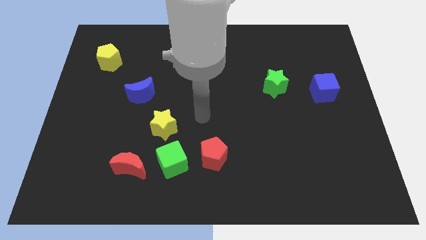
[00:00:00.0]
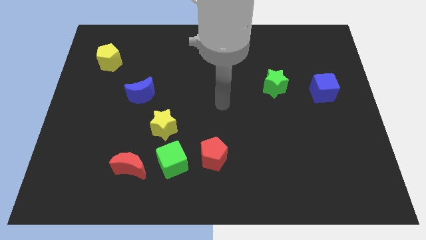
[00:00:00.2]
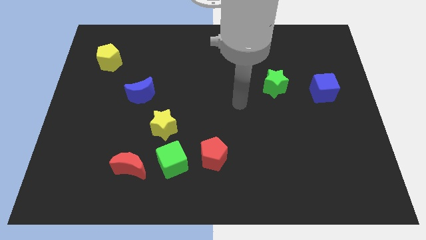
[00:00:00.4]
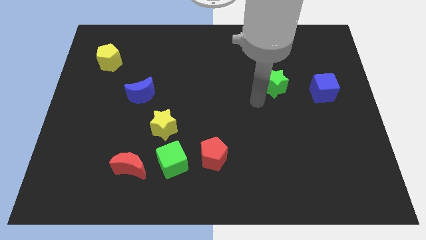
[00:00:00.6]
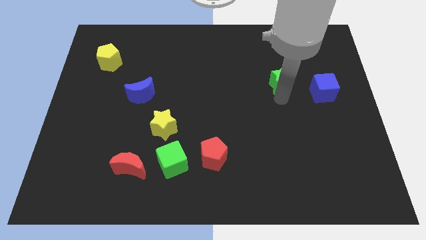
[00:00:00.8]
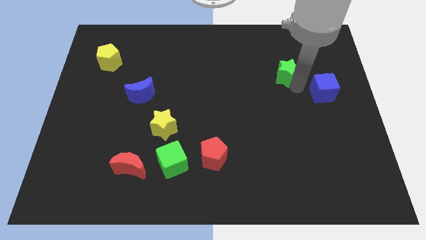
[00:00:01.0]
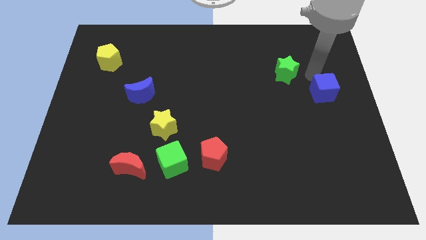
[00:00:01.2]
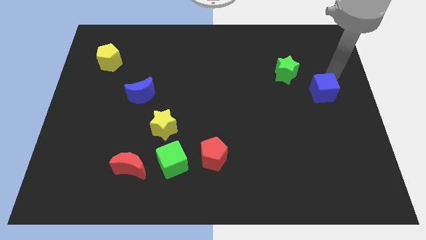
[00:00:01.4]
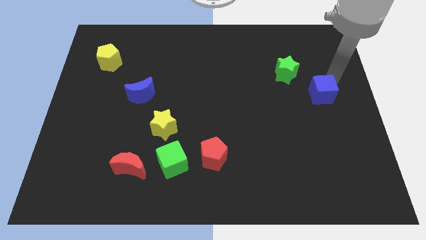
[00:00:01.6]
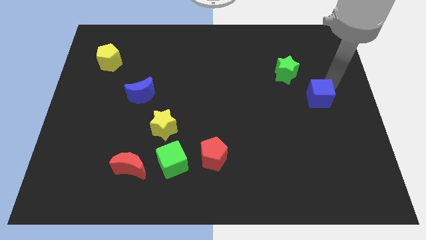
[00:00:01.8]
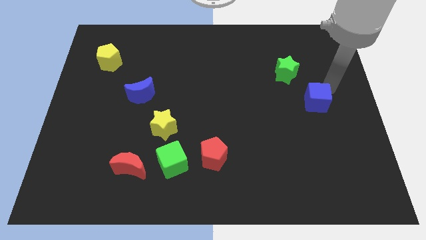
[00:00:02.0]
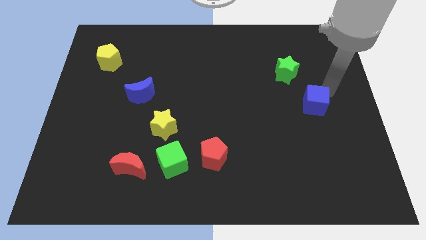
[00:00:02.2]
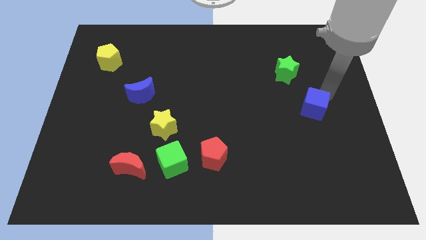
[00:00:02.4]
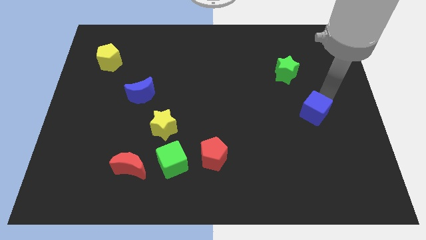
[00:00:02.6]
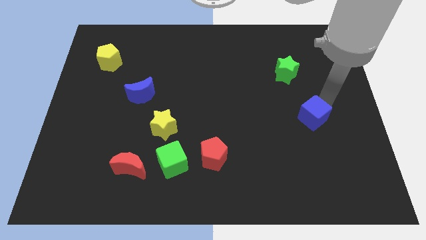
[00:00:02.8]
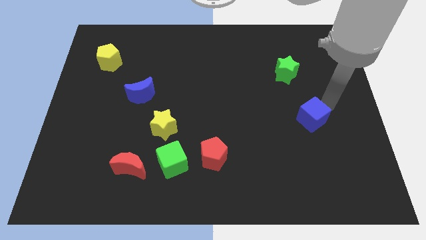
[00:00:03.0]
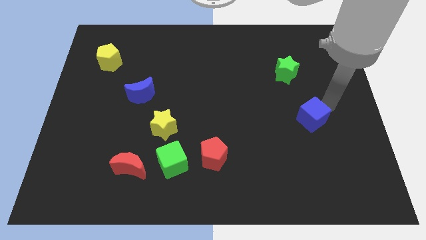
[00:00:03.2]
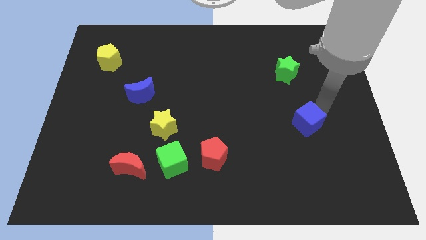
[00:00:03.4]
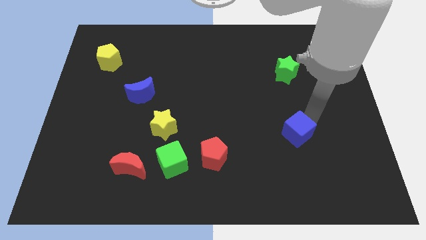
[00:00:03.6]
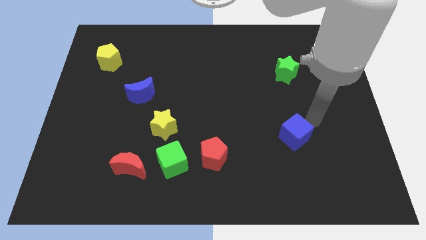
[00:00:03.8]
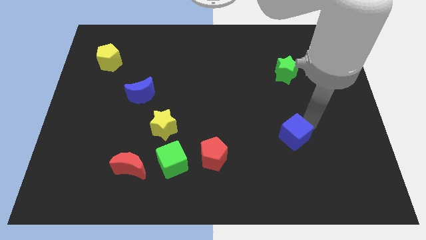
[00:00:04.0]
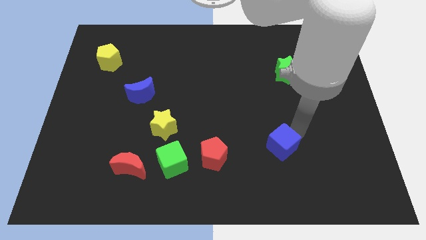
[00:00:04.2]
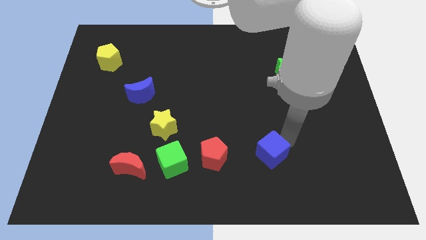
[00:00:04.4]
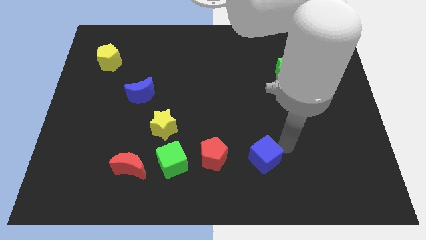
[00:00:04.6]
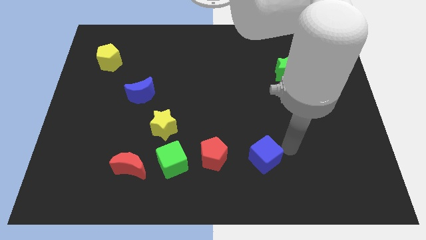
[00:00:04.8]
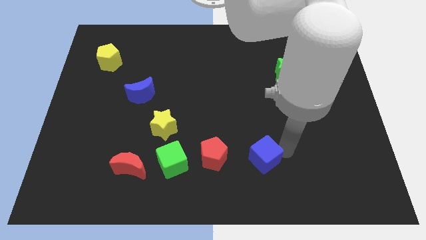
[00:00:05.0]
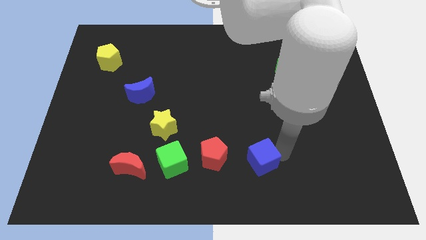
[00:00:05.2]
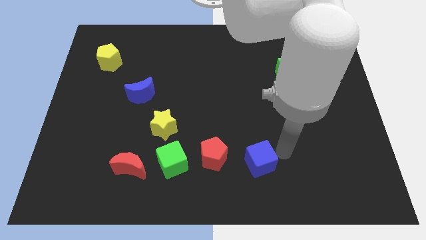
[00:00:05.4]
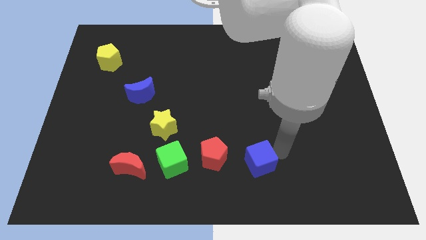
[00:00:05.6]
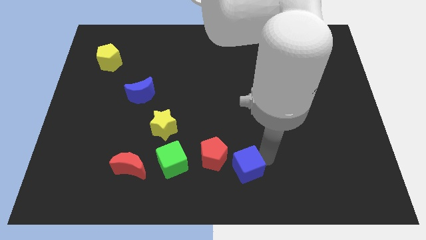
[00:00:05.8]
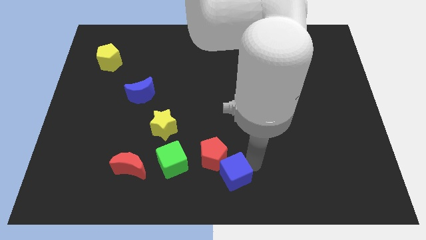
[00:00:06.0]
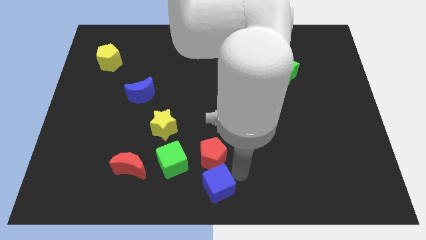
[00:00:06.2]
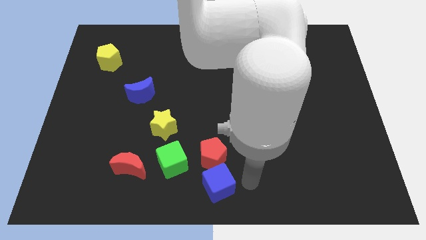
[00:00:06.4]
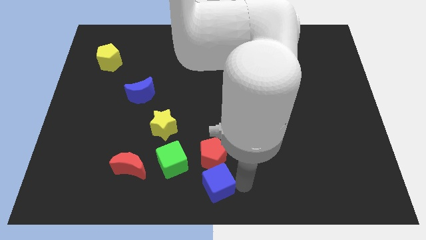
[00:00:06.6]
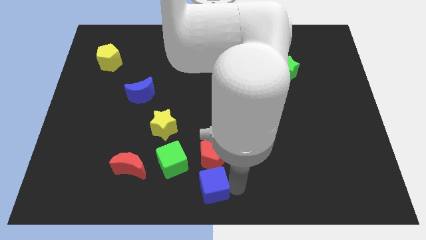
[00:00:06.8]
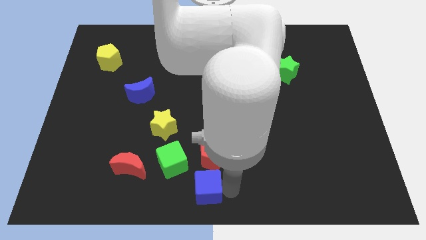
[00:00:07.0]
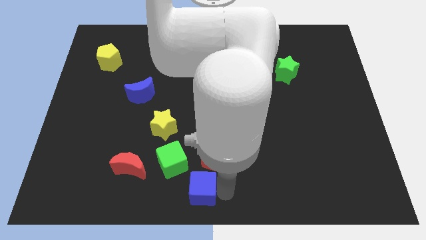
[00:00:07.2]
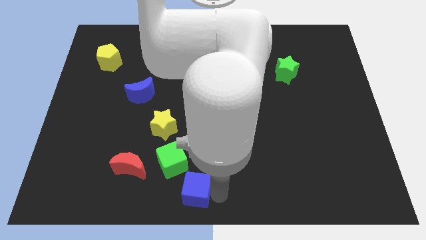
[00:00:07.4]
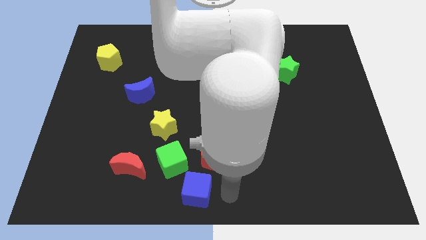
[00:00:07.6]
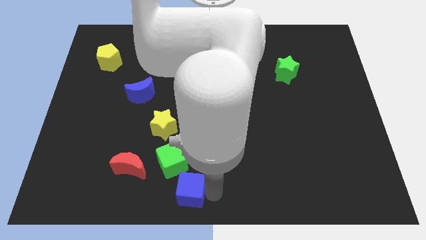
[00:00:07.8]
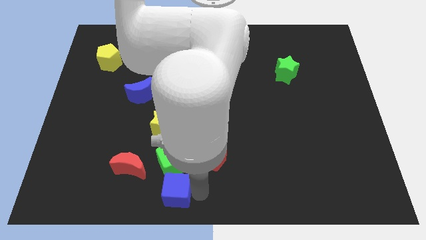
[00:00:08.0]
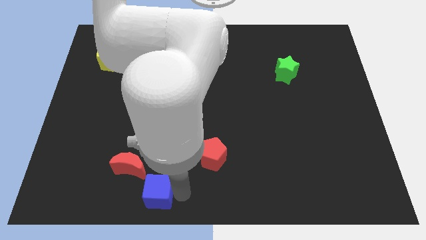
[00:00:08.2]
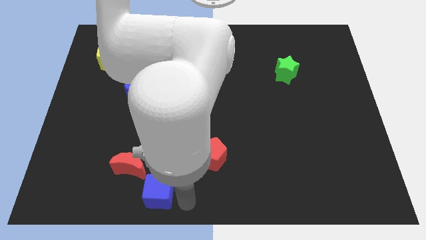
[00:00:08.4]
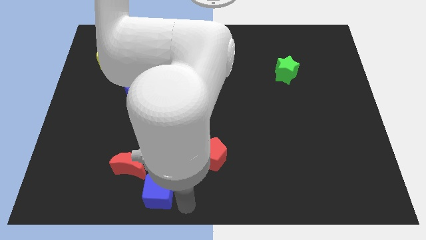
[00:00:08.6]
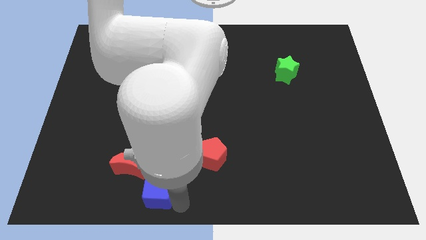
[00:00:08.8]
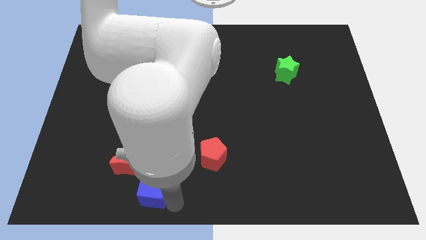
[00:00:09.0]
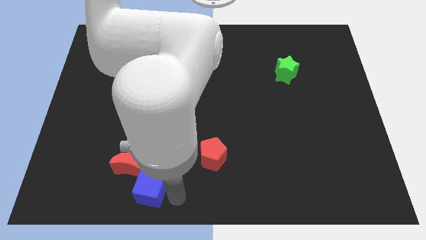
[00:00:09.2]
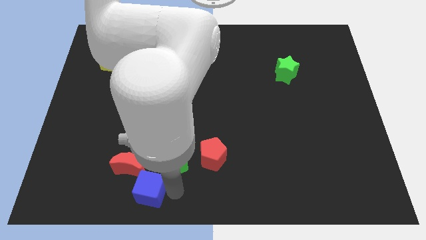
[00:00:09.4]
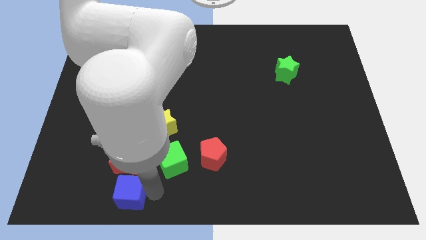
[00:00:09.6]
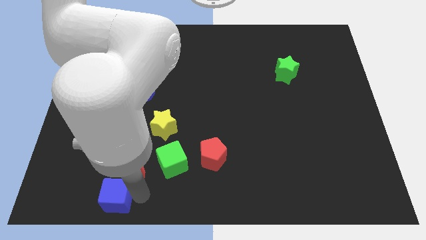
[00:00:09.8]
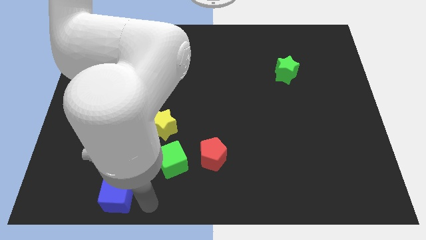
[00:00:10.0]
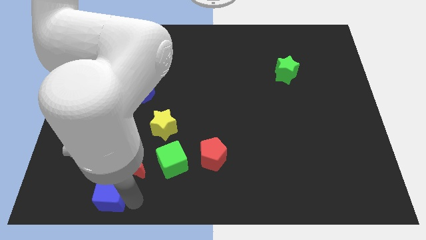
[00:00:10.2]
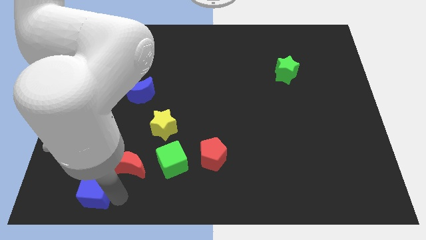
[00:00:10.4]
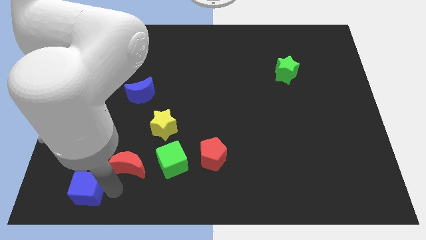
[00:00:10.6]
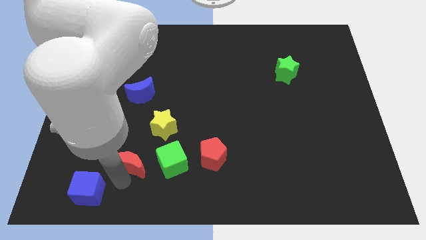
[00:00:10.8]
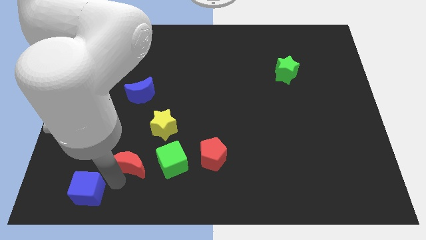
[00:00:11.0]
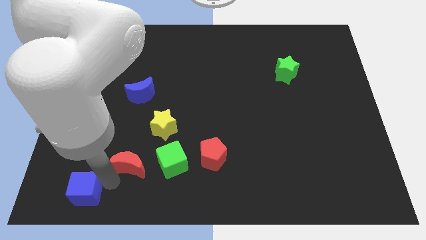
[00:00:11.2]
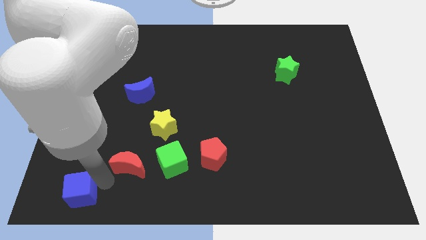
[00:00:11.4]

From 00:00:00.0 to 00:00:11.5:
put the blue cube to the bottom left

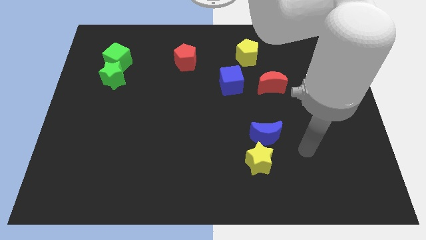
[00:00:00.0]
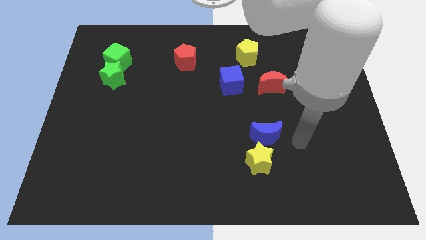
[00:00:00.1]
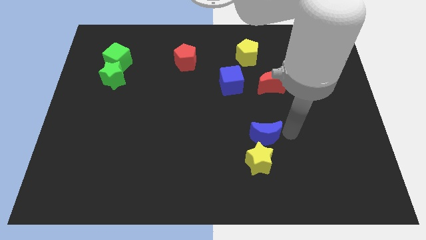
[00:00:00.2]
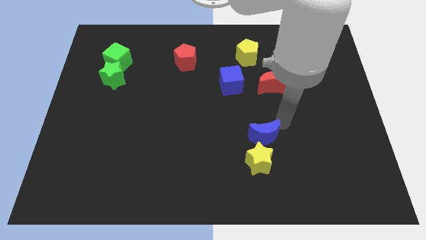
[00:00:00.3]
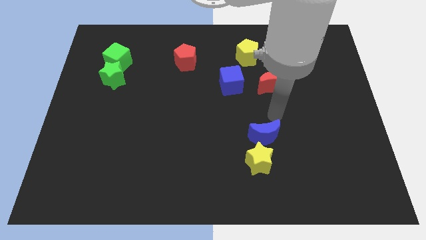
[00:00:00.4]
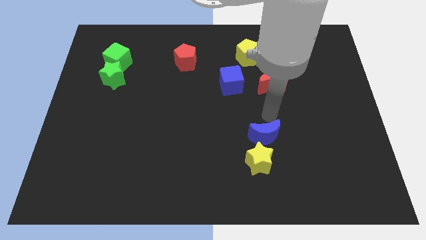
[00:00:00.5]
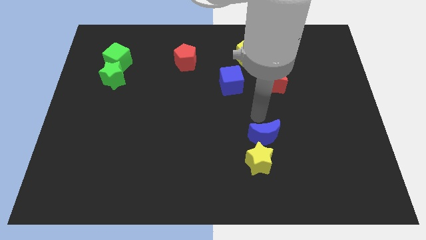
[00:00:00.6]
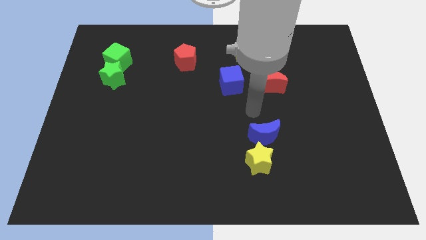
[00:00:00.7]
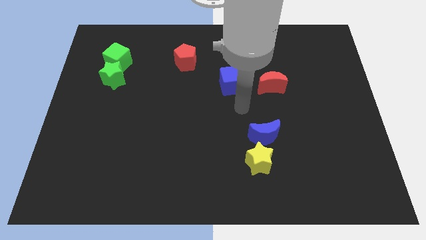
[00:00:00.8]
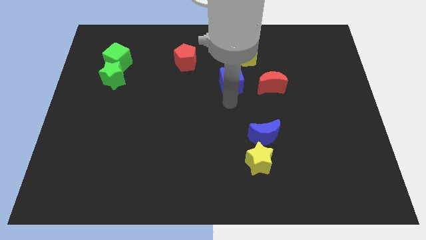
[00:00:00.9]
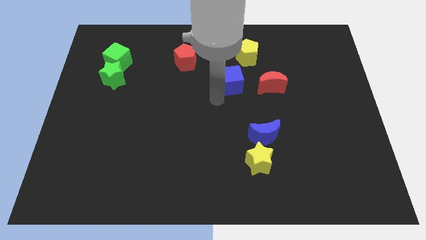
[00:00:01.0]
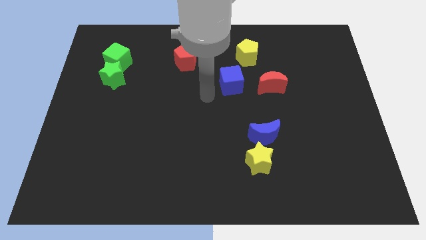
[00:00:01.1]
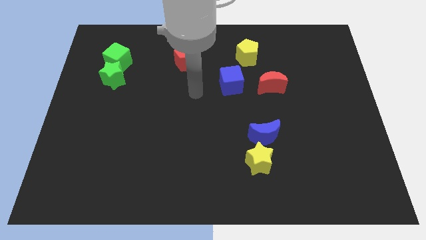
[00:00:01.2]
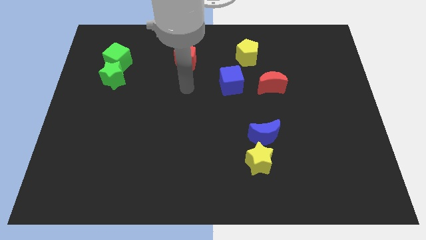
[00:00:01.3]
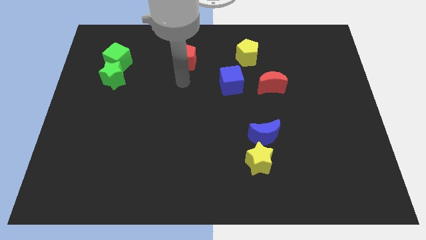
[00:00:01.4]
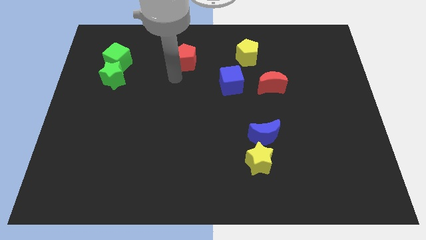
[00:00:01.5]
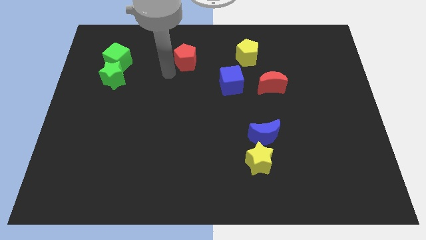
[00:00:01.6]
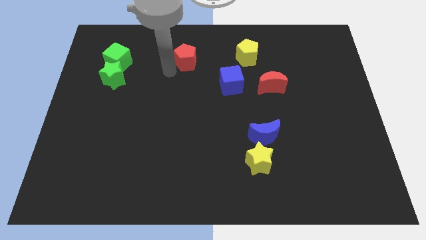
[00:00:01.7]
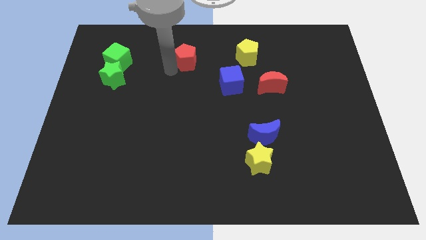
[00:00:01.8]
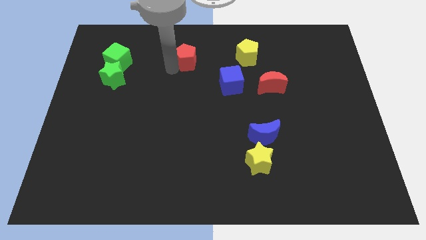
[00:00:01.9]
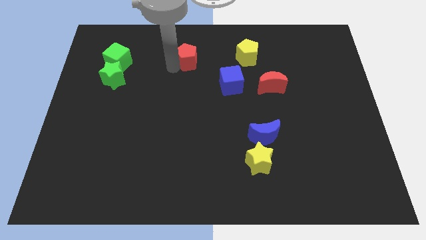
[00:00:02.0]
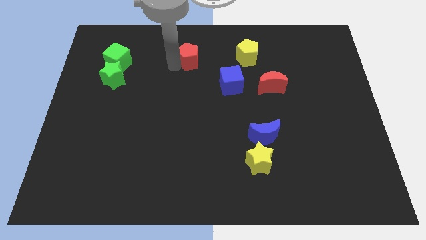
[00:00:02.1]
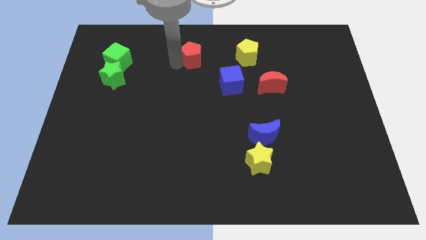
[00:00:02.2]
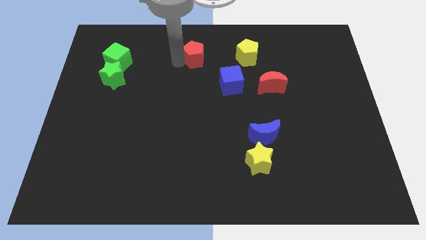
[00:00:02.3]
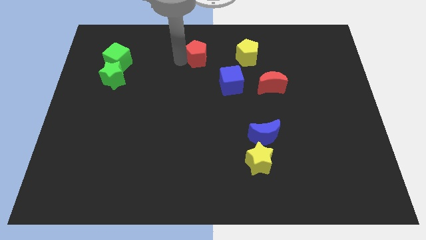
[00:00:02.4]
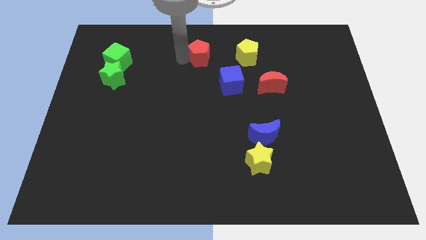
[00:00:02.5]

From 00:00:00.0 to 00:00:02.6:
put the red pentagon to the towards your base
